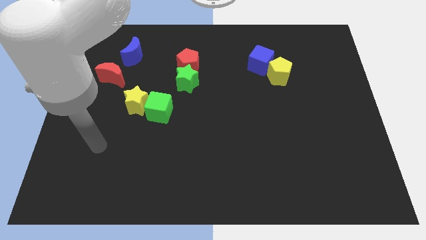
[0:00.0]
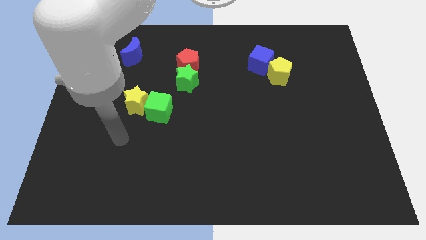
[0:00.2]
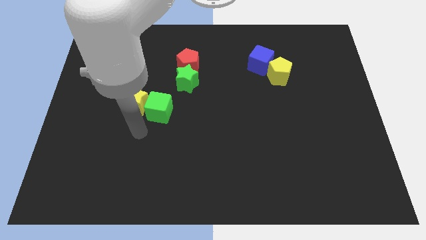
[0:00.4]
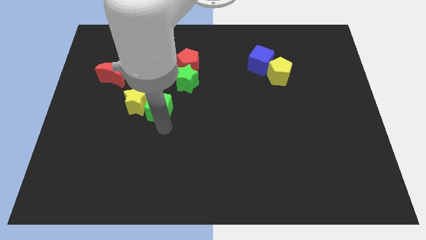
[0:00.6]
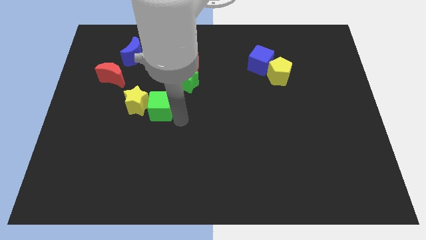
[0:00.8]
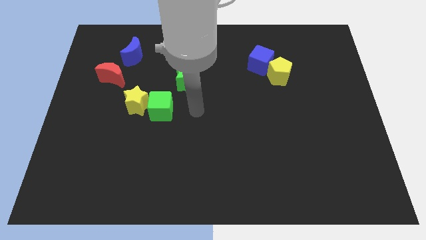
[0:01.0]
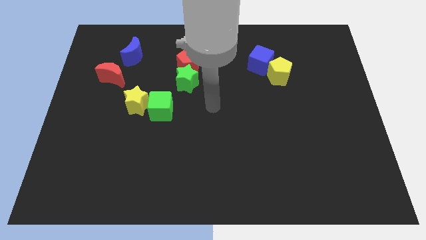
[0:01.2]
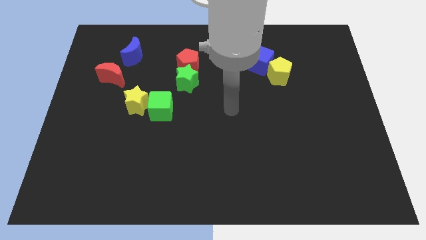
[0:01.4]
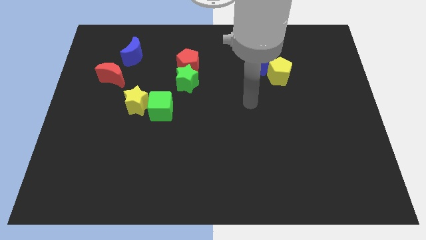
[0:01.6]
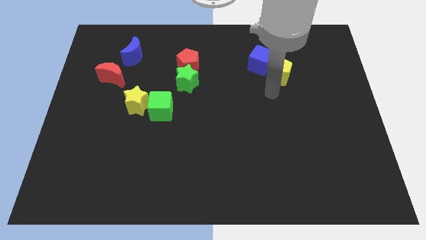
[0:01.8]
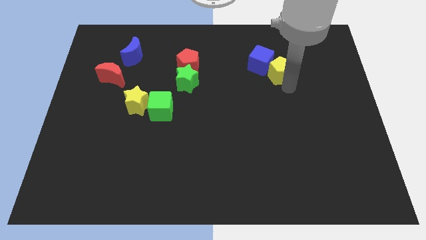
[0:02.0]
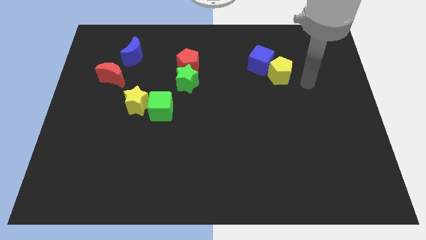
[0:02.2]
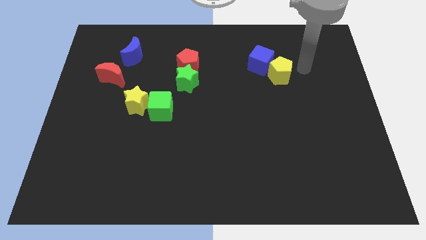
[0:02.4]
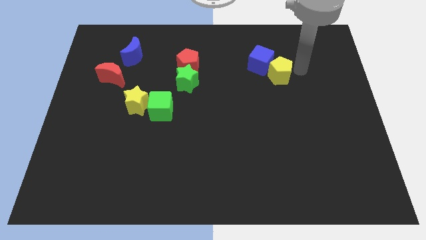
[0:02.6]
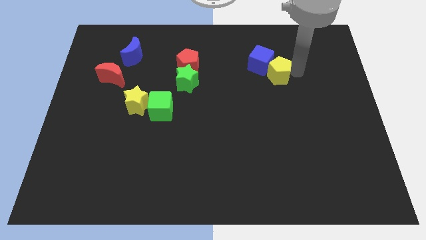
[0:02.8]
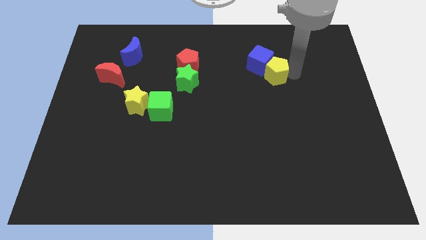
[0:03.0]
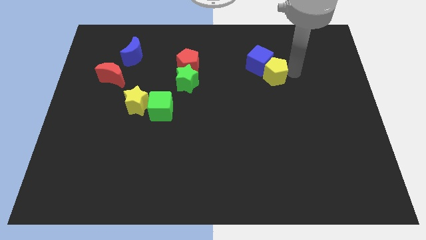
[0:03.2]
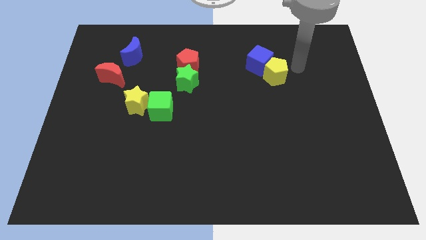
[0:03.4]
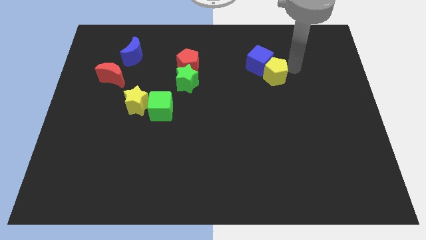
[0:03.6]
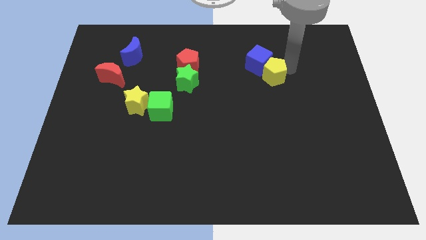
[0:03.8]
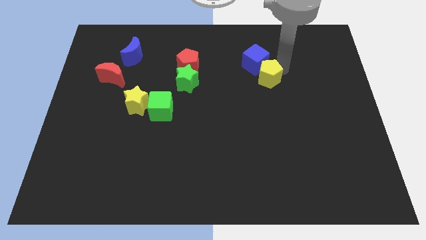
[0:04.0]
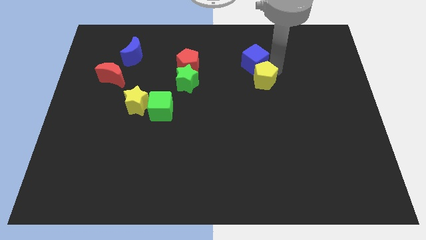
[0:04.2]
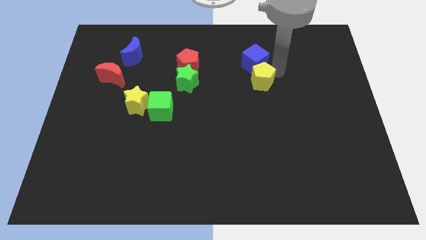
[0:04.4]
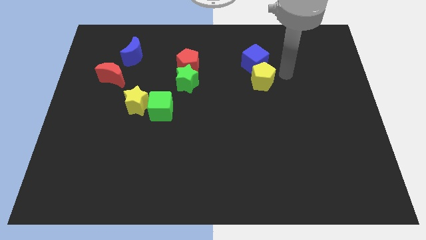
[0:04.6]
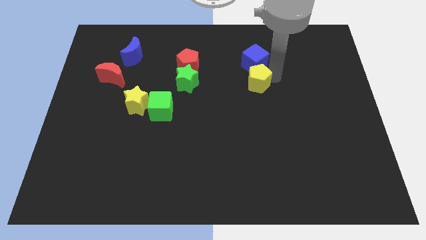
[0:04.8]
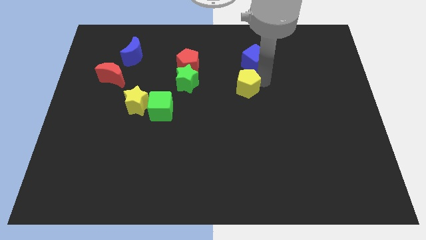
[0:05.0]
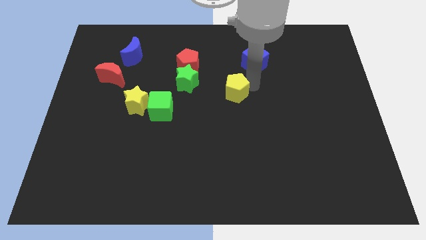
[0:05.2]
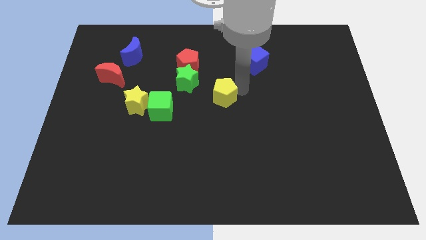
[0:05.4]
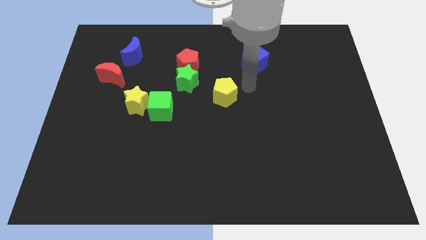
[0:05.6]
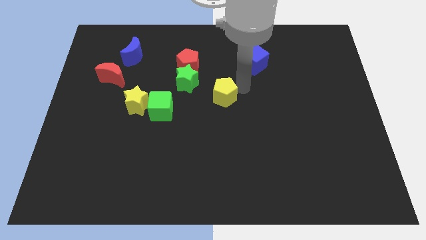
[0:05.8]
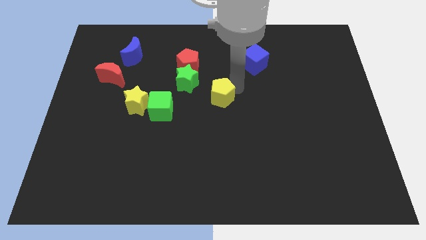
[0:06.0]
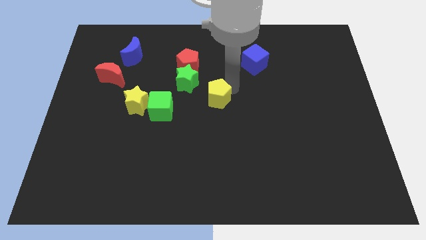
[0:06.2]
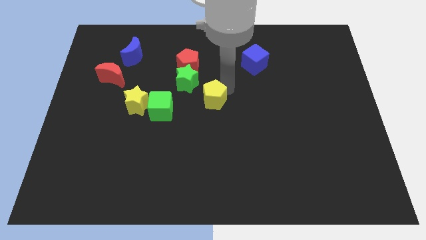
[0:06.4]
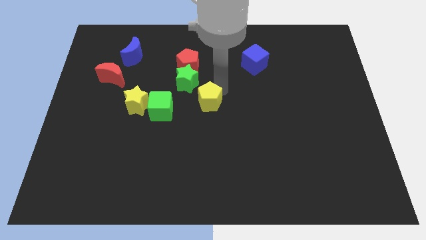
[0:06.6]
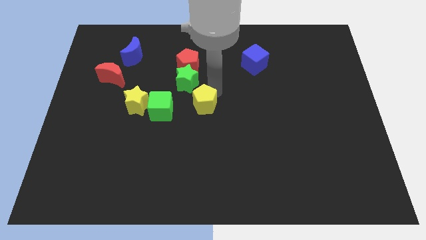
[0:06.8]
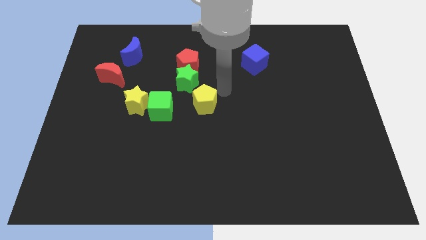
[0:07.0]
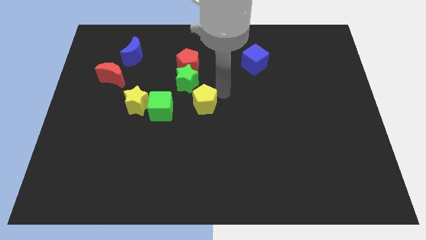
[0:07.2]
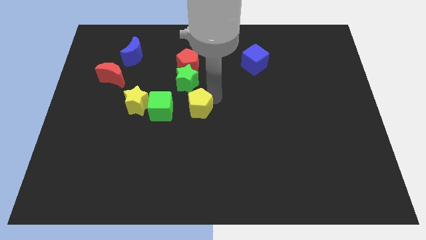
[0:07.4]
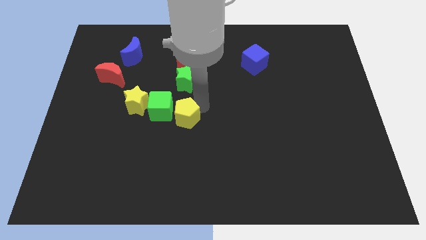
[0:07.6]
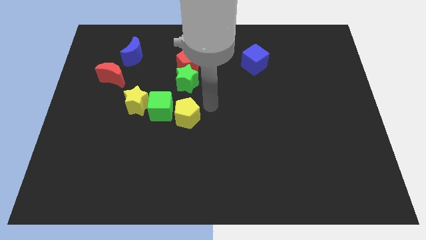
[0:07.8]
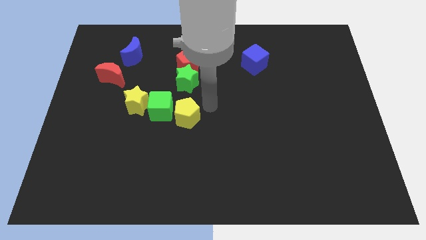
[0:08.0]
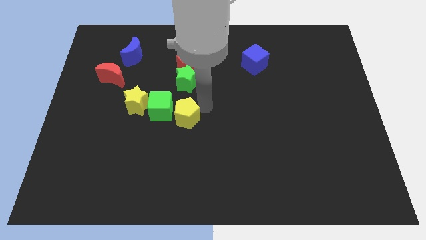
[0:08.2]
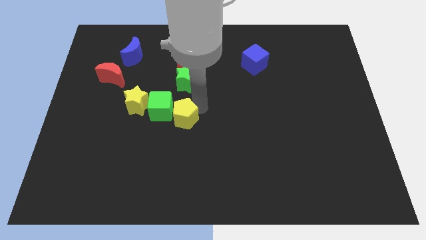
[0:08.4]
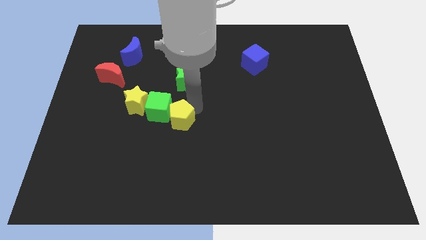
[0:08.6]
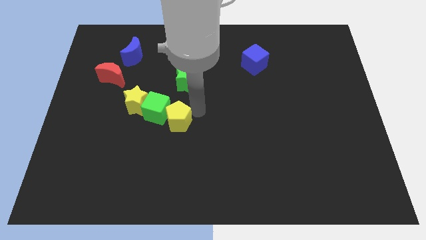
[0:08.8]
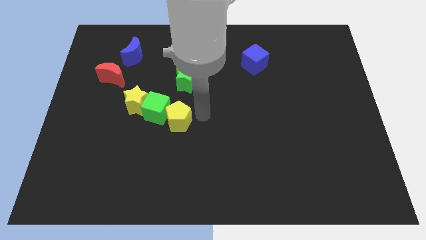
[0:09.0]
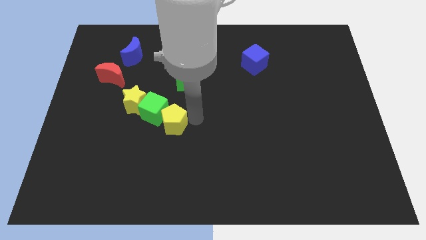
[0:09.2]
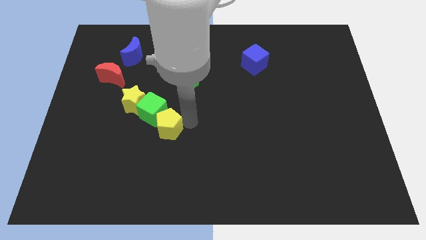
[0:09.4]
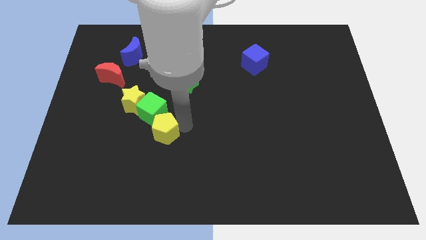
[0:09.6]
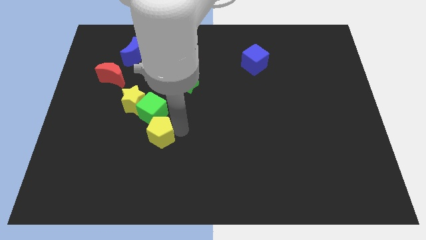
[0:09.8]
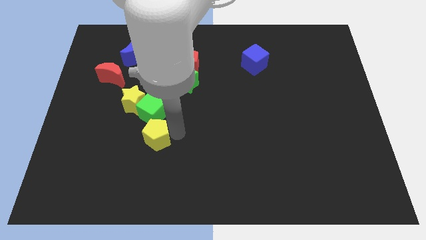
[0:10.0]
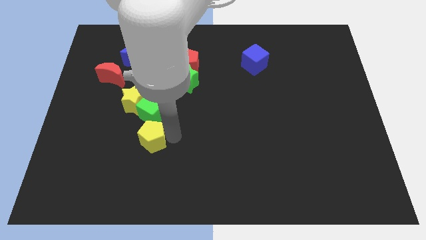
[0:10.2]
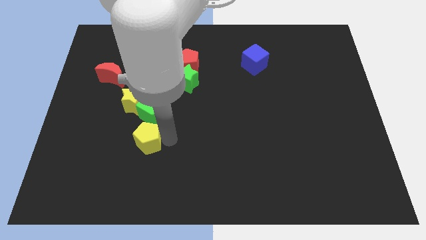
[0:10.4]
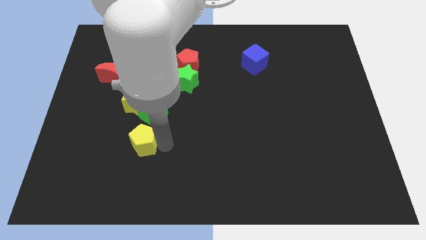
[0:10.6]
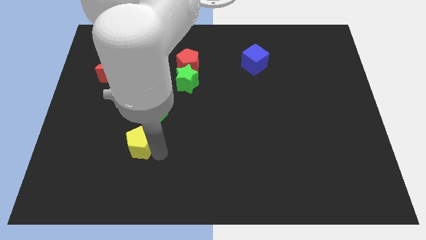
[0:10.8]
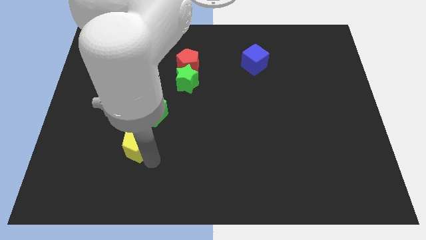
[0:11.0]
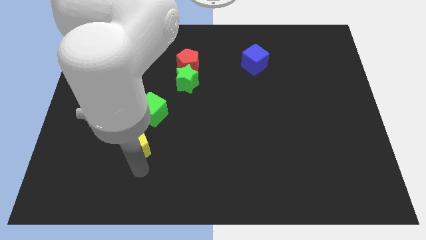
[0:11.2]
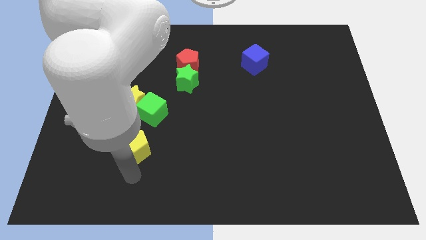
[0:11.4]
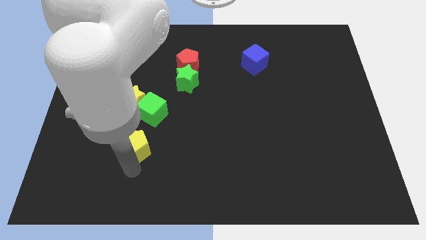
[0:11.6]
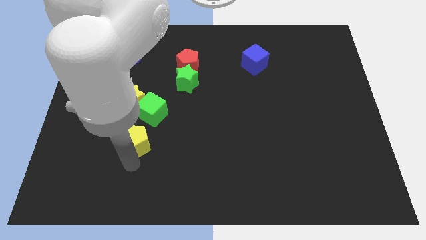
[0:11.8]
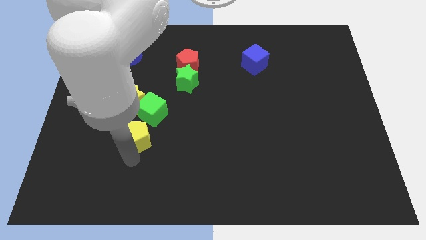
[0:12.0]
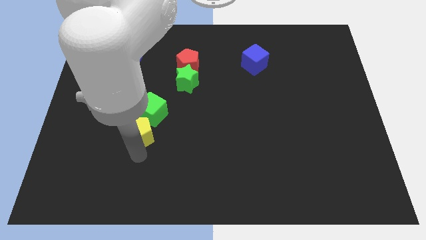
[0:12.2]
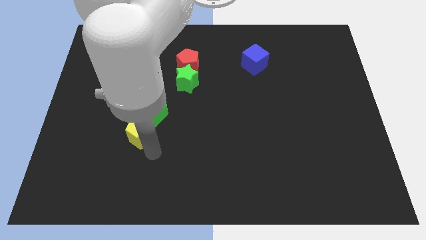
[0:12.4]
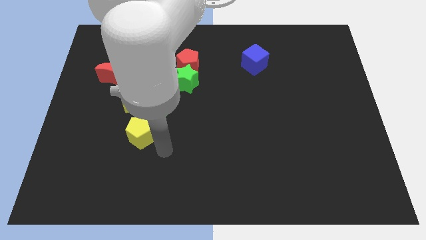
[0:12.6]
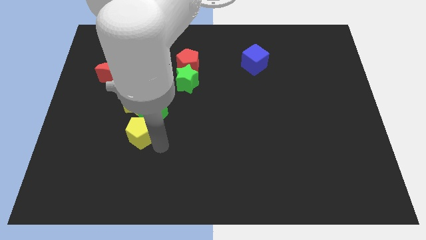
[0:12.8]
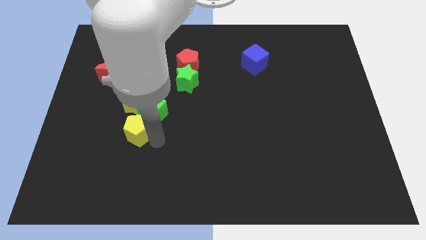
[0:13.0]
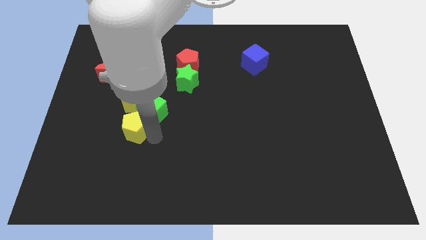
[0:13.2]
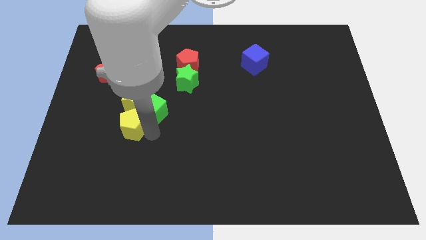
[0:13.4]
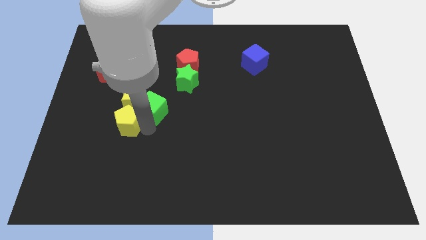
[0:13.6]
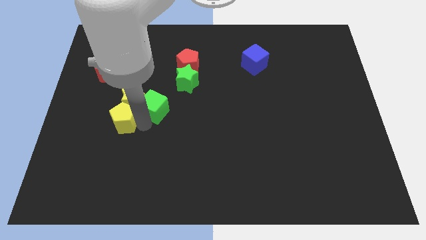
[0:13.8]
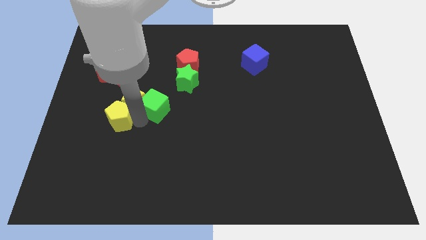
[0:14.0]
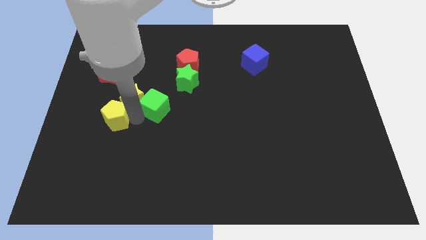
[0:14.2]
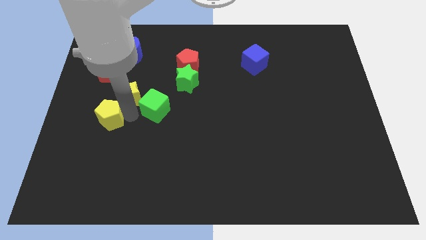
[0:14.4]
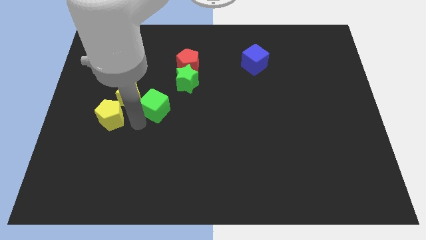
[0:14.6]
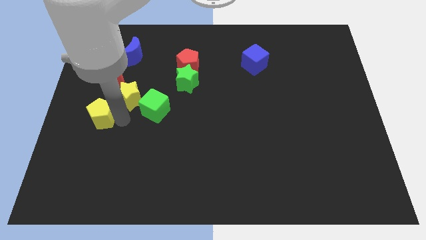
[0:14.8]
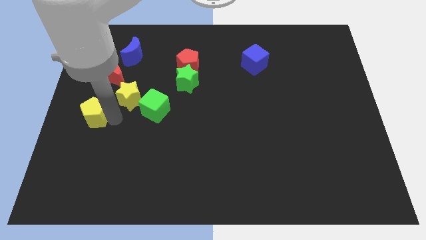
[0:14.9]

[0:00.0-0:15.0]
move the yellow pentagon to the left side of the board
